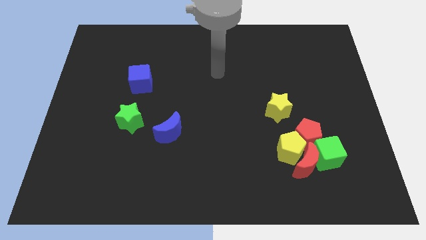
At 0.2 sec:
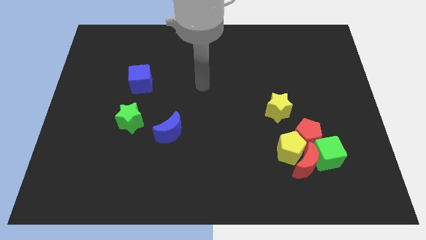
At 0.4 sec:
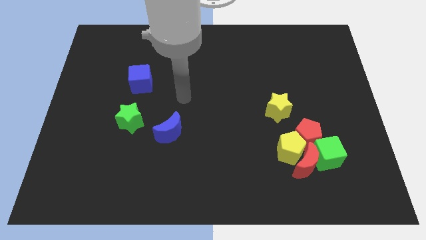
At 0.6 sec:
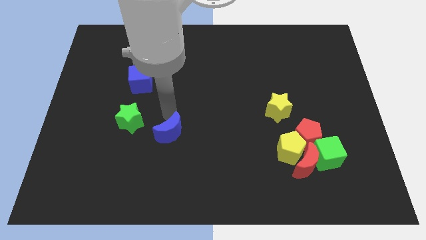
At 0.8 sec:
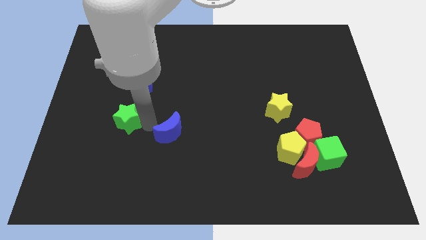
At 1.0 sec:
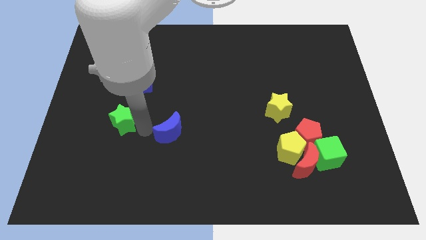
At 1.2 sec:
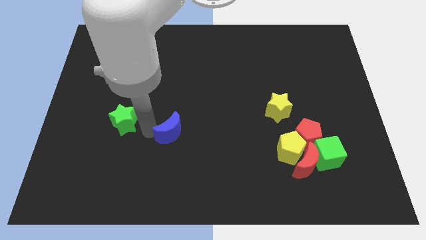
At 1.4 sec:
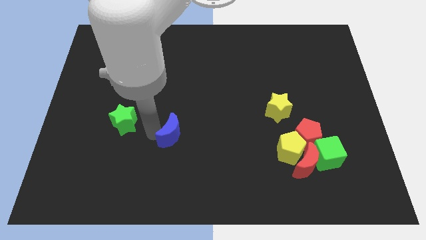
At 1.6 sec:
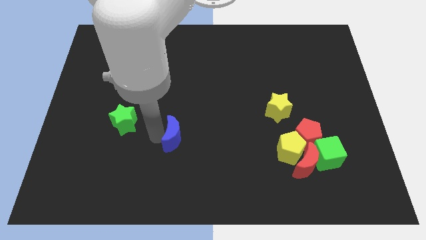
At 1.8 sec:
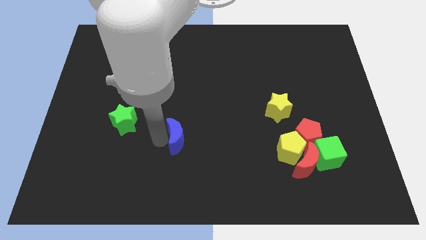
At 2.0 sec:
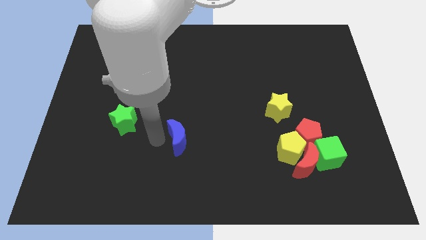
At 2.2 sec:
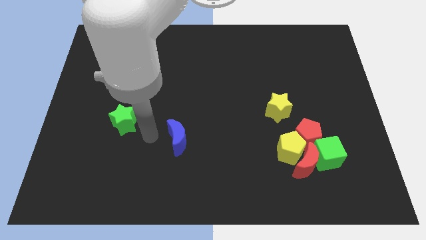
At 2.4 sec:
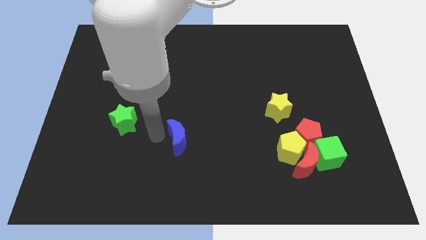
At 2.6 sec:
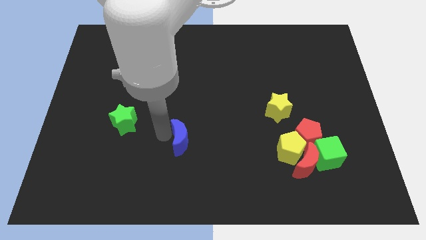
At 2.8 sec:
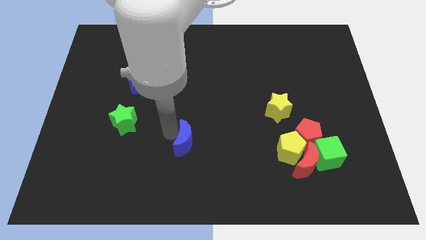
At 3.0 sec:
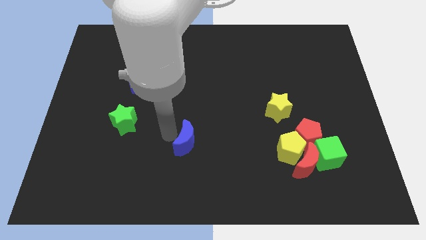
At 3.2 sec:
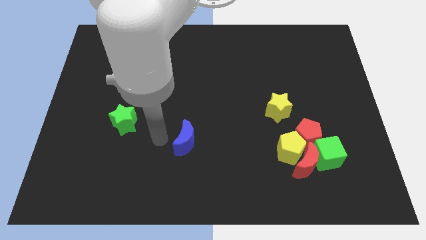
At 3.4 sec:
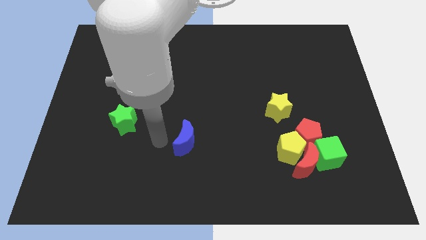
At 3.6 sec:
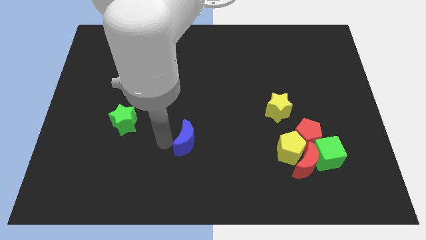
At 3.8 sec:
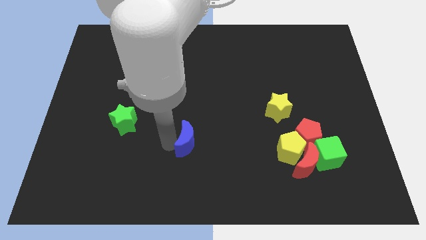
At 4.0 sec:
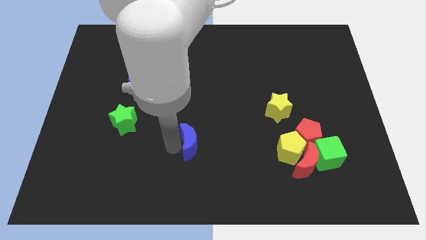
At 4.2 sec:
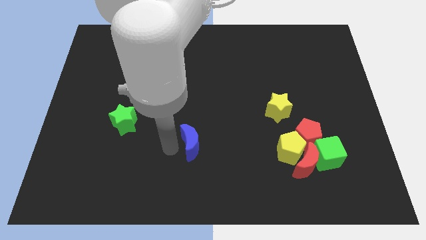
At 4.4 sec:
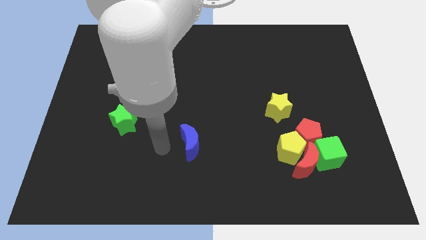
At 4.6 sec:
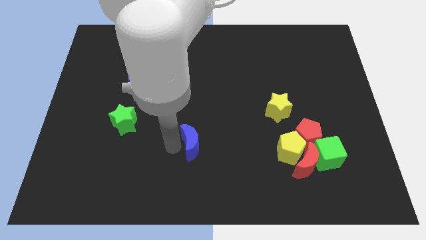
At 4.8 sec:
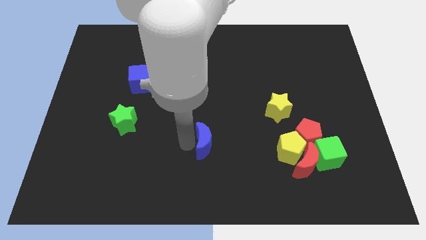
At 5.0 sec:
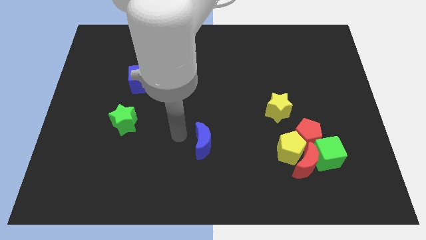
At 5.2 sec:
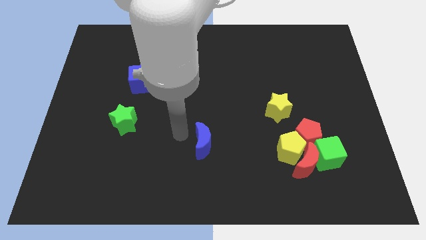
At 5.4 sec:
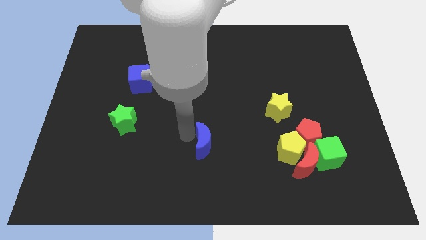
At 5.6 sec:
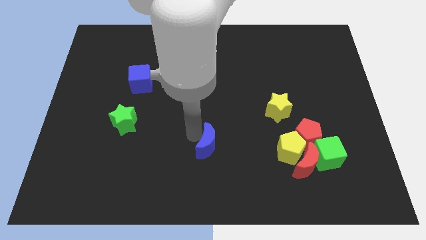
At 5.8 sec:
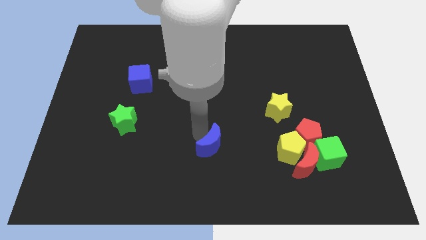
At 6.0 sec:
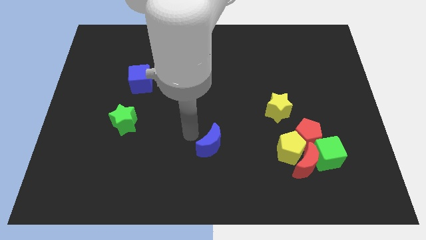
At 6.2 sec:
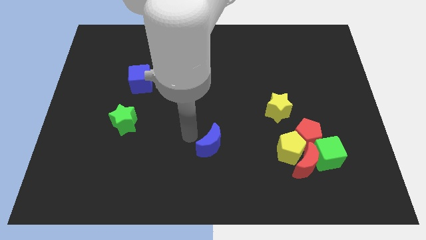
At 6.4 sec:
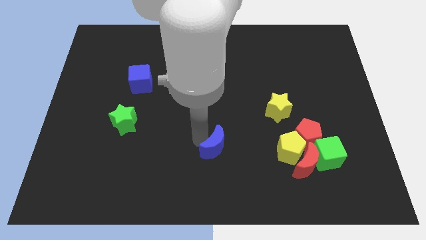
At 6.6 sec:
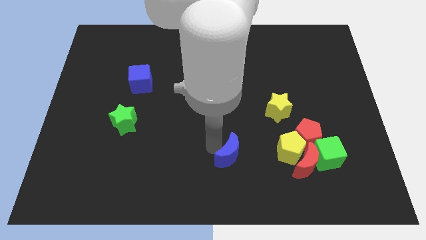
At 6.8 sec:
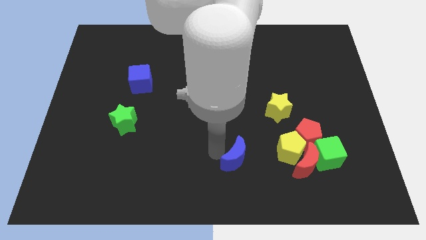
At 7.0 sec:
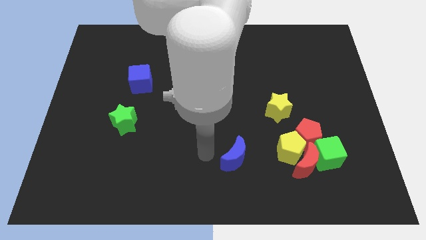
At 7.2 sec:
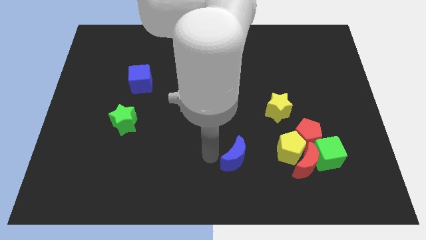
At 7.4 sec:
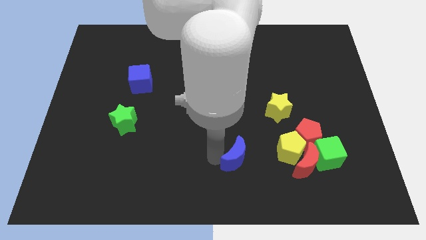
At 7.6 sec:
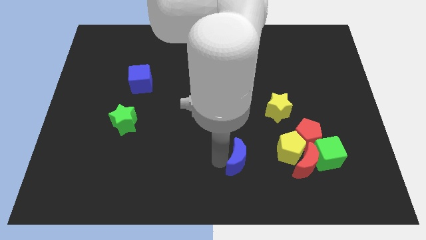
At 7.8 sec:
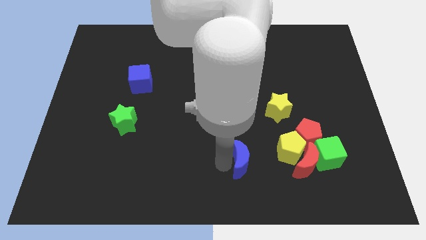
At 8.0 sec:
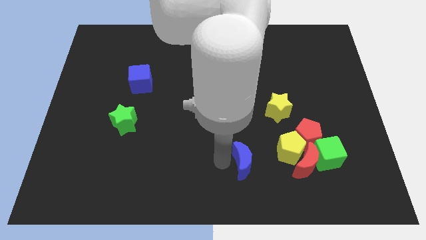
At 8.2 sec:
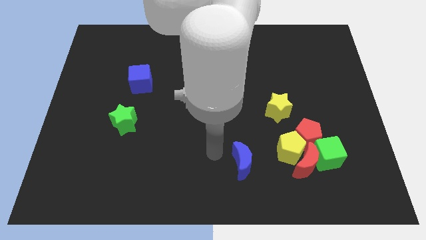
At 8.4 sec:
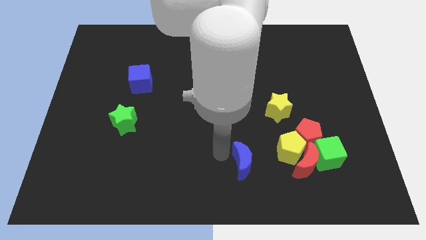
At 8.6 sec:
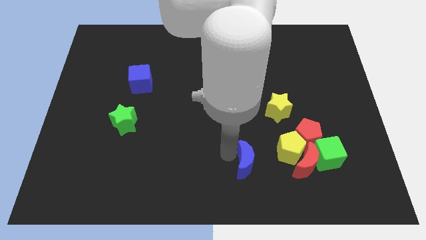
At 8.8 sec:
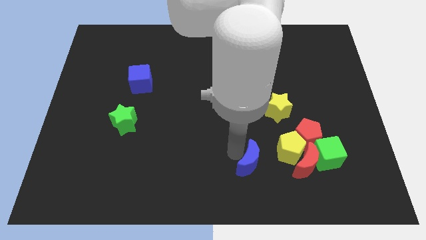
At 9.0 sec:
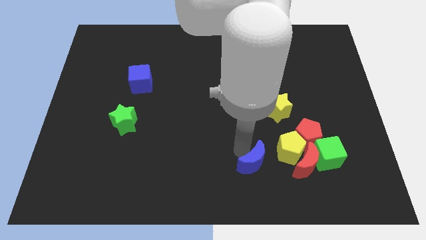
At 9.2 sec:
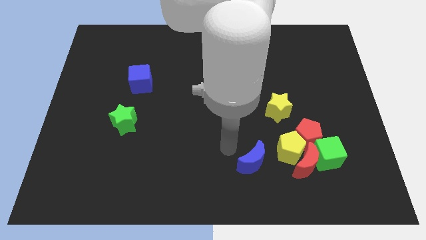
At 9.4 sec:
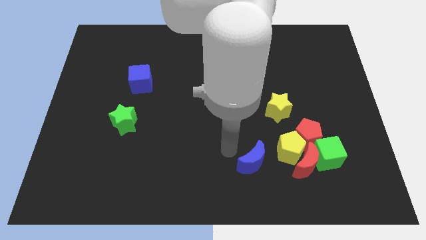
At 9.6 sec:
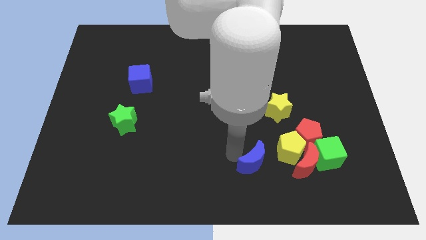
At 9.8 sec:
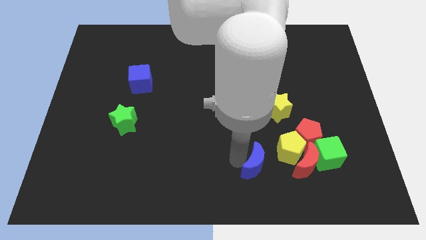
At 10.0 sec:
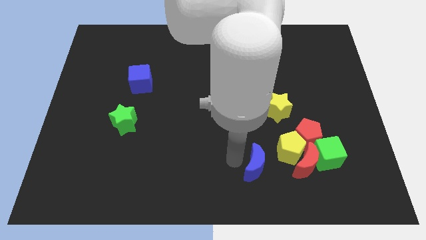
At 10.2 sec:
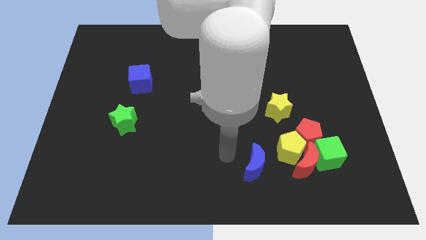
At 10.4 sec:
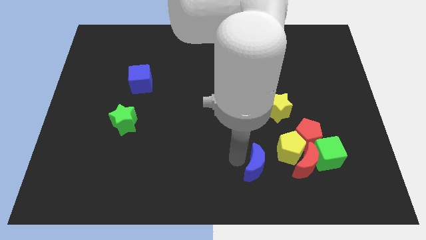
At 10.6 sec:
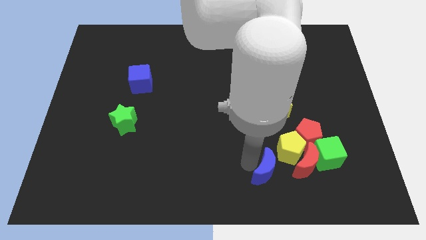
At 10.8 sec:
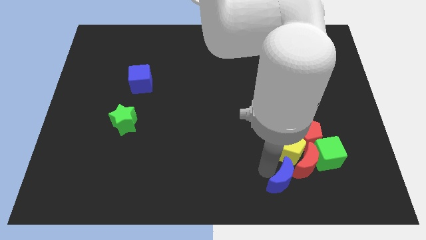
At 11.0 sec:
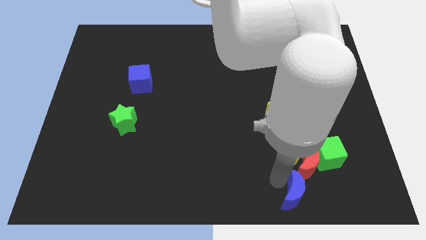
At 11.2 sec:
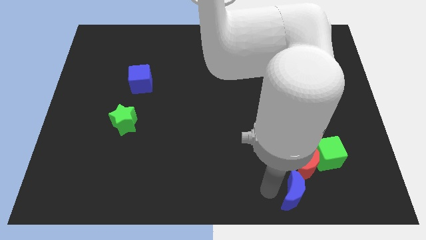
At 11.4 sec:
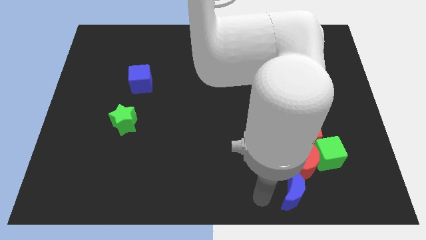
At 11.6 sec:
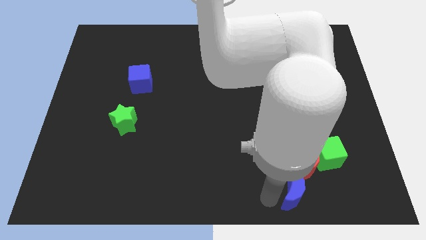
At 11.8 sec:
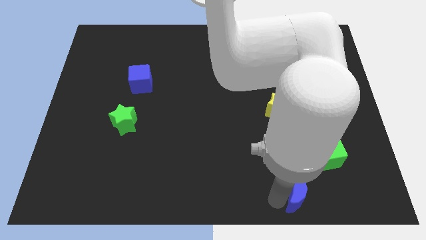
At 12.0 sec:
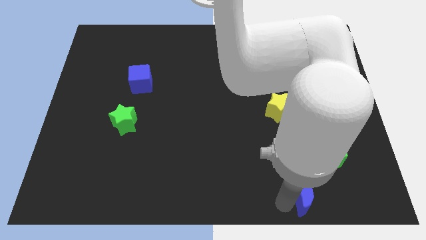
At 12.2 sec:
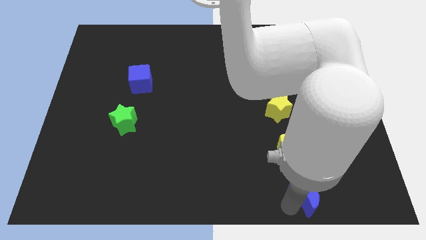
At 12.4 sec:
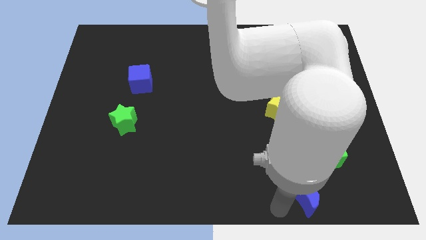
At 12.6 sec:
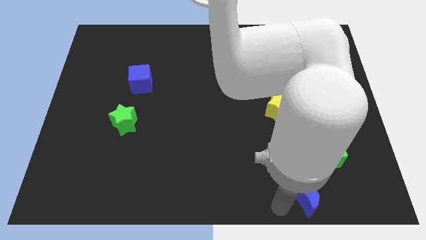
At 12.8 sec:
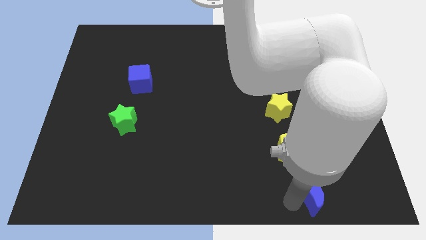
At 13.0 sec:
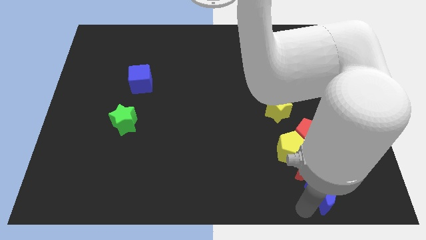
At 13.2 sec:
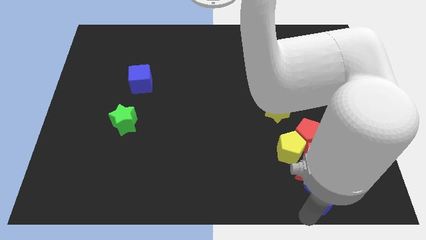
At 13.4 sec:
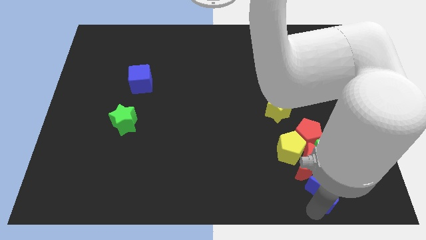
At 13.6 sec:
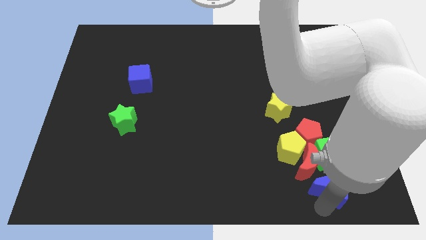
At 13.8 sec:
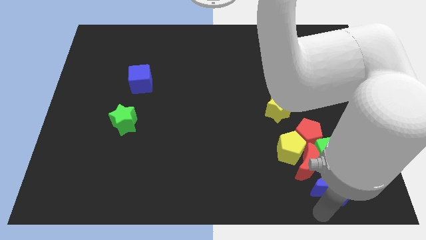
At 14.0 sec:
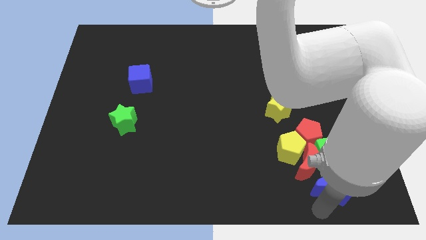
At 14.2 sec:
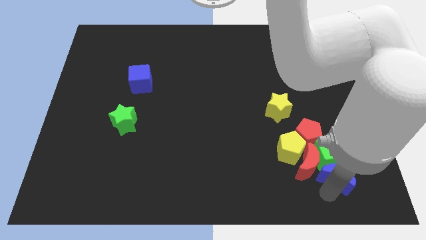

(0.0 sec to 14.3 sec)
move the blue moon next to the green cube
